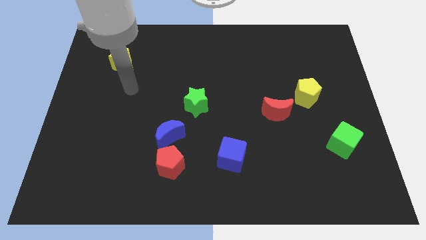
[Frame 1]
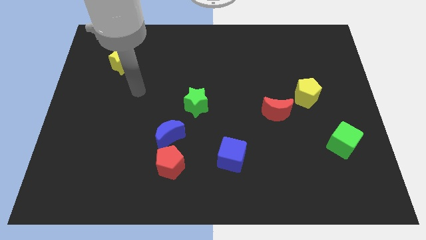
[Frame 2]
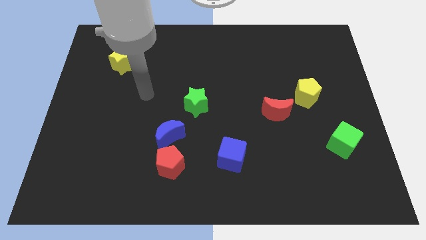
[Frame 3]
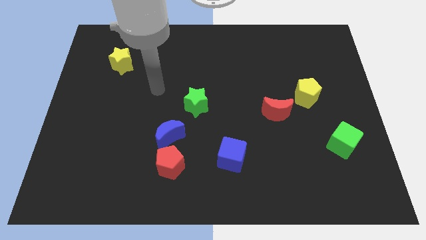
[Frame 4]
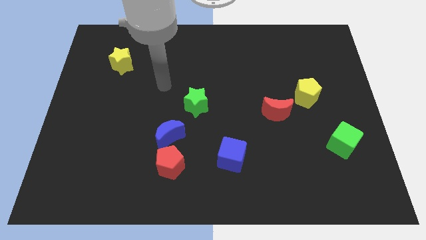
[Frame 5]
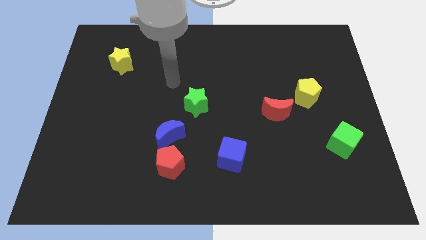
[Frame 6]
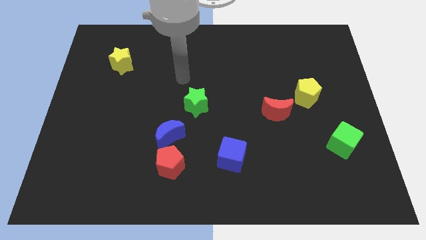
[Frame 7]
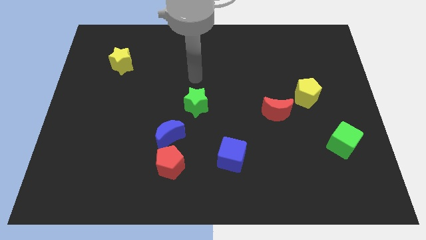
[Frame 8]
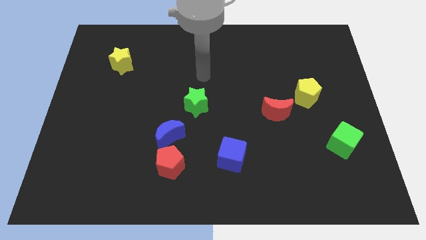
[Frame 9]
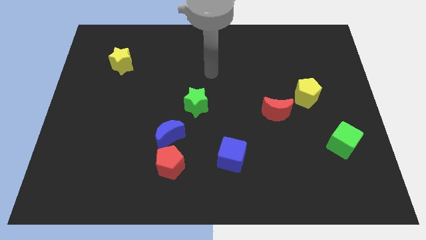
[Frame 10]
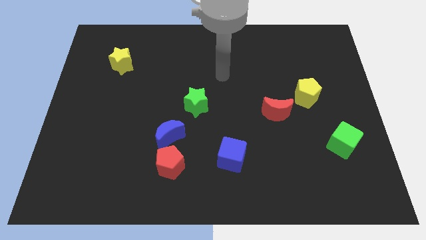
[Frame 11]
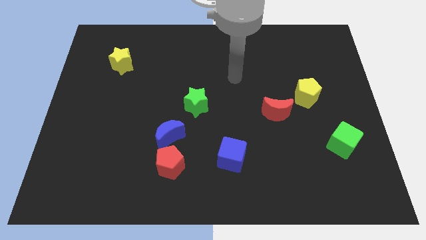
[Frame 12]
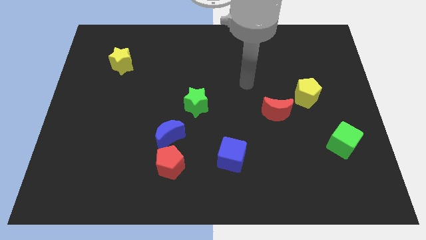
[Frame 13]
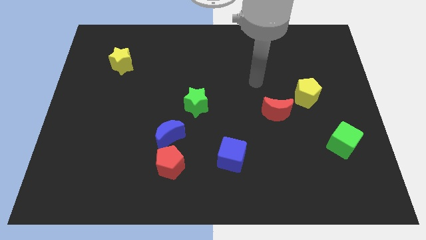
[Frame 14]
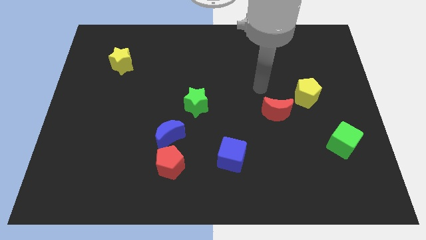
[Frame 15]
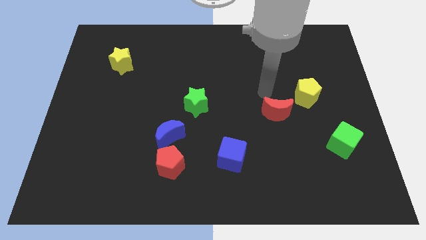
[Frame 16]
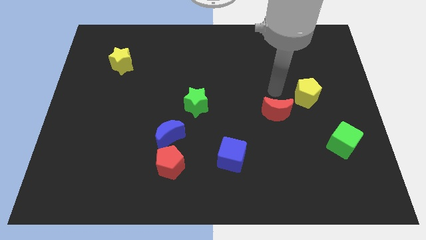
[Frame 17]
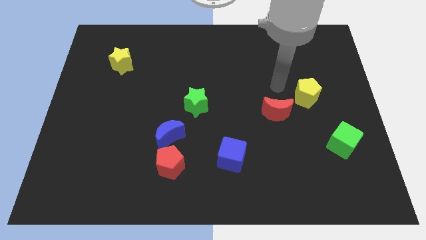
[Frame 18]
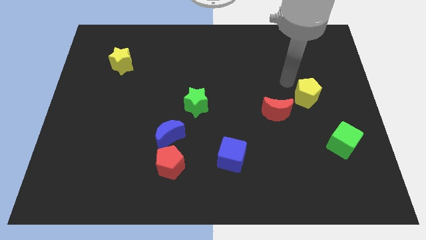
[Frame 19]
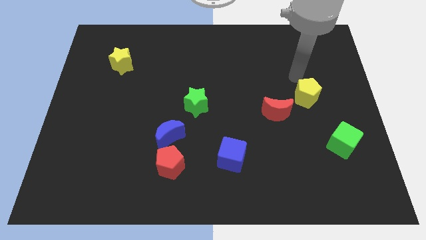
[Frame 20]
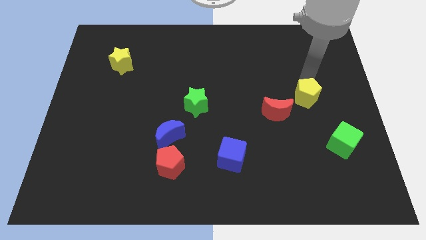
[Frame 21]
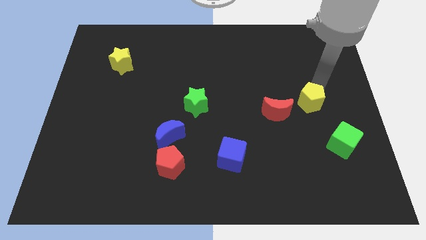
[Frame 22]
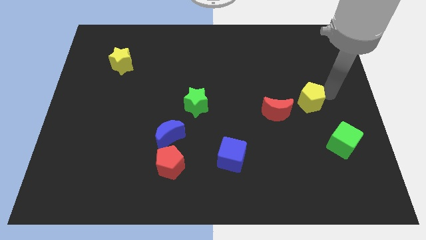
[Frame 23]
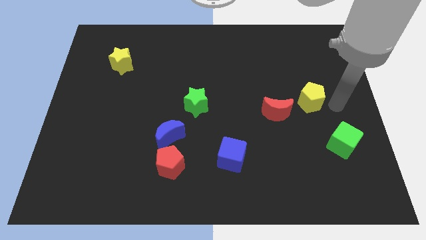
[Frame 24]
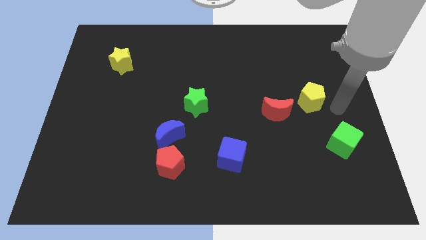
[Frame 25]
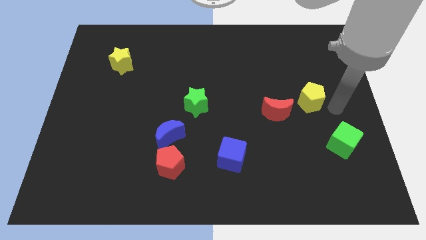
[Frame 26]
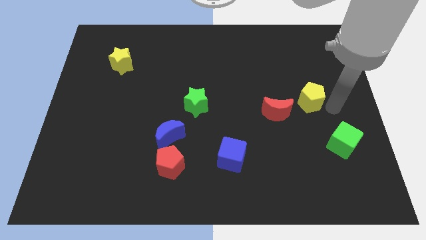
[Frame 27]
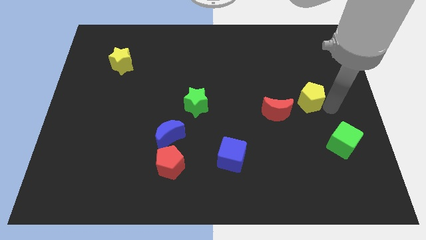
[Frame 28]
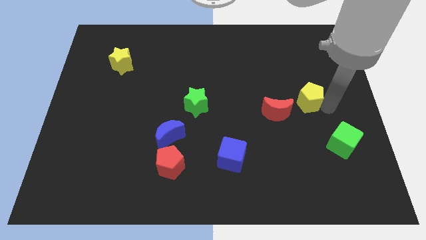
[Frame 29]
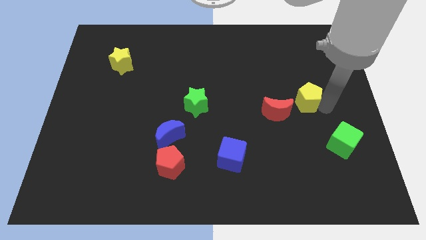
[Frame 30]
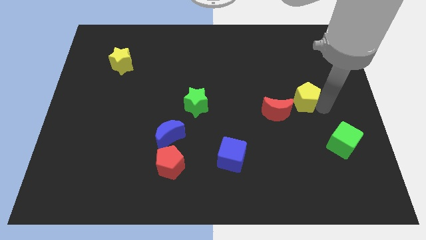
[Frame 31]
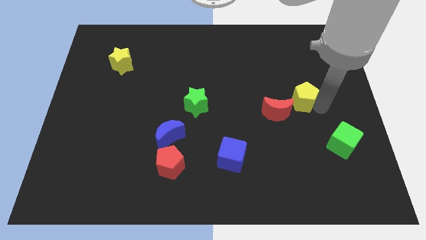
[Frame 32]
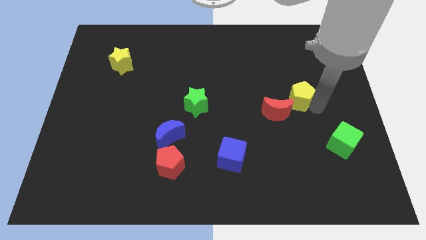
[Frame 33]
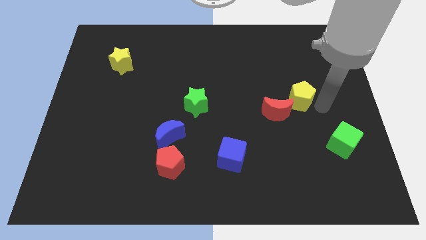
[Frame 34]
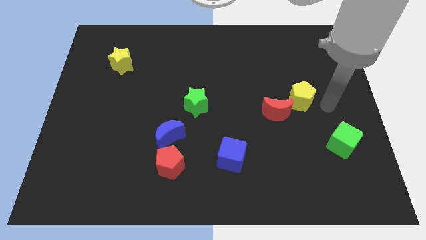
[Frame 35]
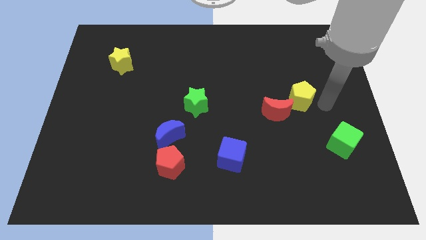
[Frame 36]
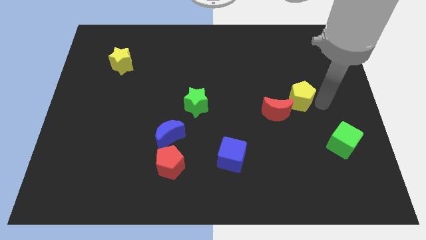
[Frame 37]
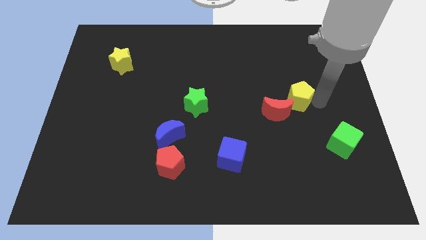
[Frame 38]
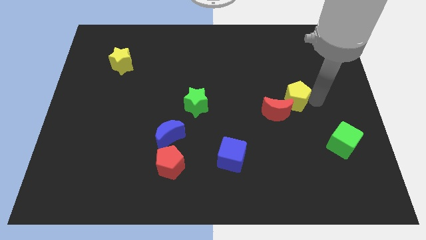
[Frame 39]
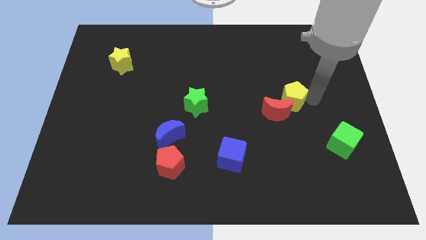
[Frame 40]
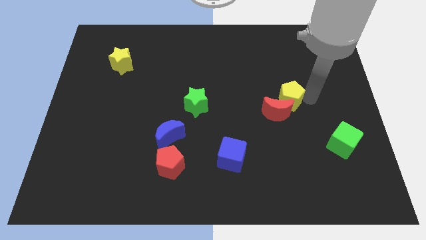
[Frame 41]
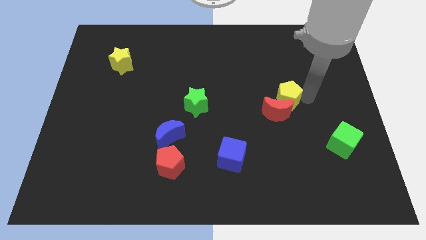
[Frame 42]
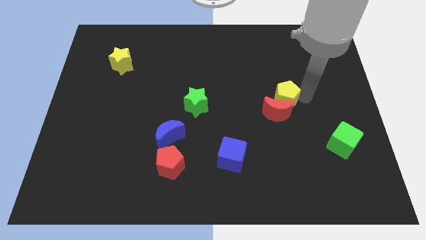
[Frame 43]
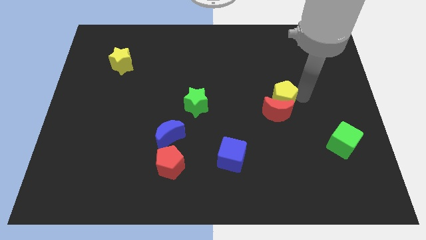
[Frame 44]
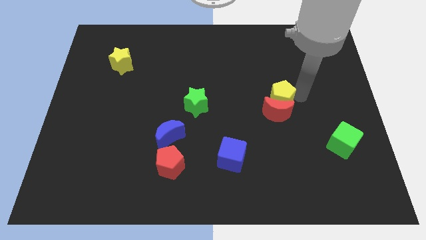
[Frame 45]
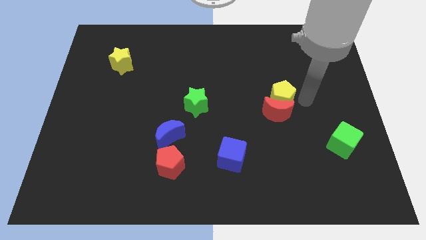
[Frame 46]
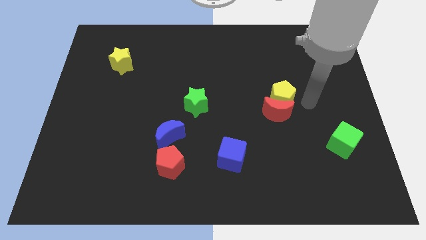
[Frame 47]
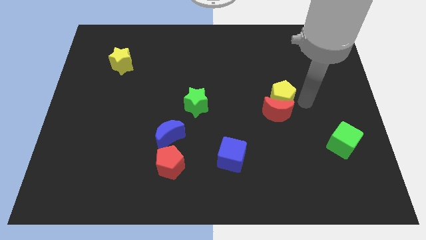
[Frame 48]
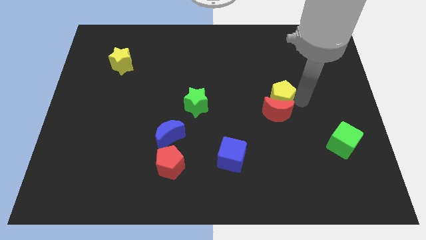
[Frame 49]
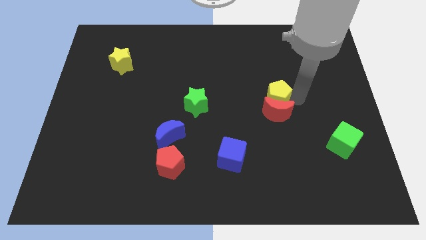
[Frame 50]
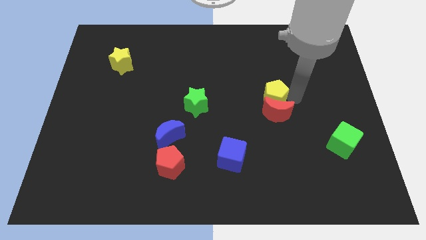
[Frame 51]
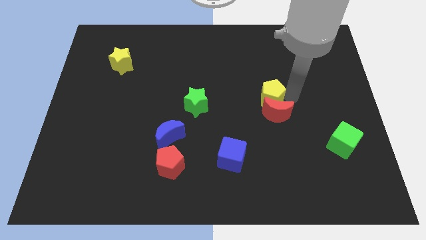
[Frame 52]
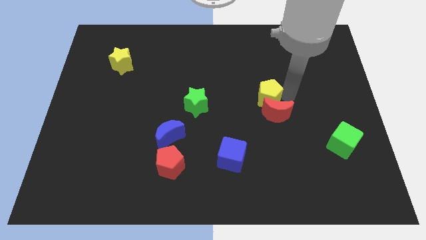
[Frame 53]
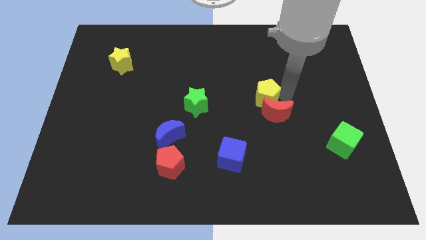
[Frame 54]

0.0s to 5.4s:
move the yellow pentagon to the center of the board
